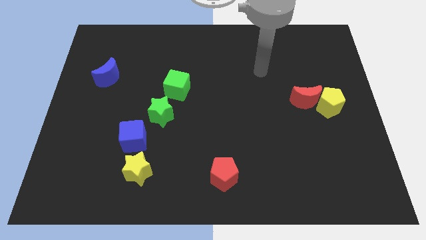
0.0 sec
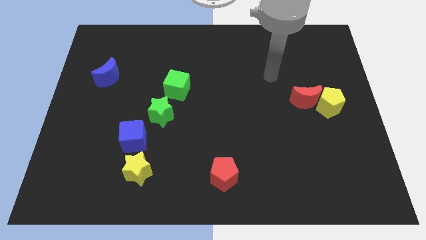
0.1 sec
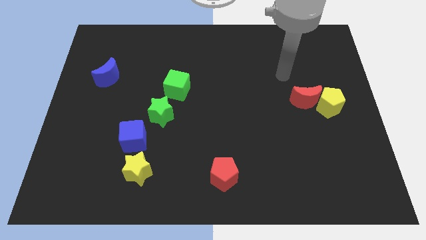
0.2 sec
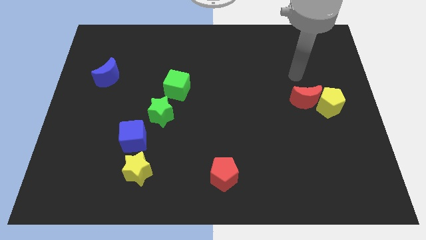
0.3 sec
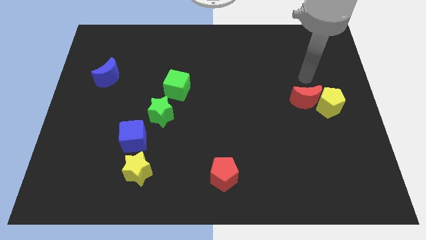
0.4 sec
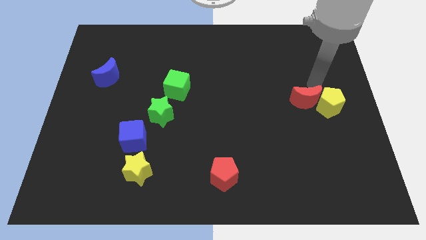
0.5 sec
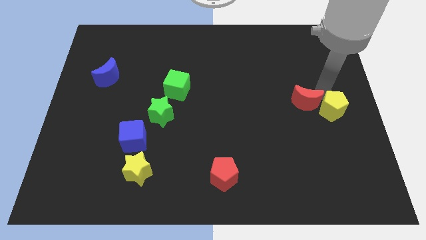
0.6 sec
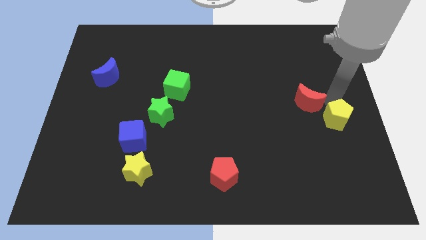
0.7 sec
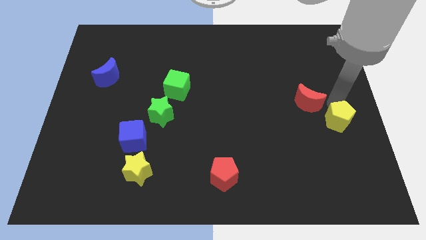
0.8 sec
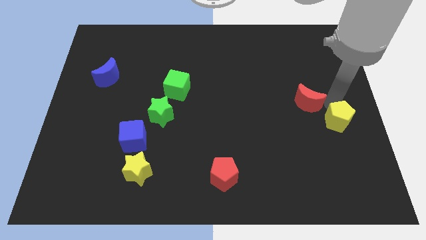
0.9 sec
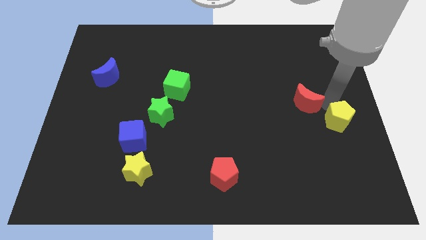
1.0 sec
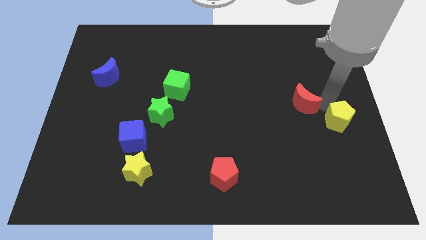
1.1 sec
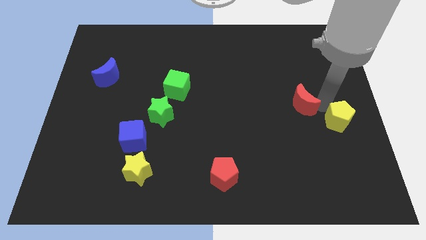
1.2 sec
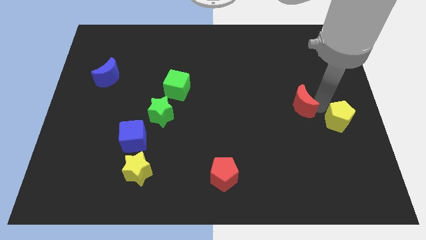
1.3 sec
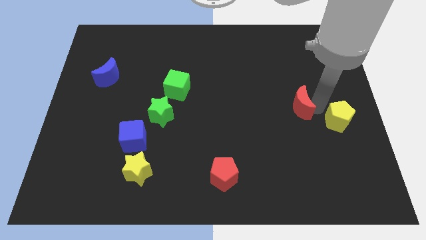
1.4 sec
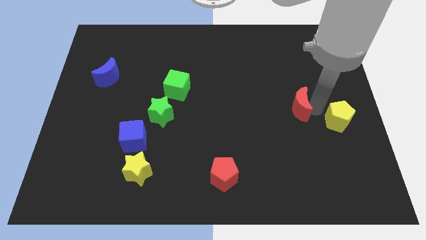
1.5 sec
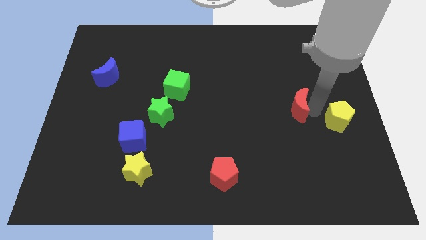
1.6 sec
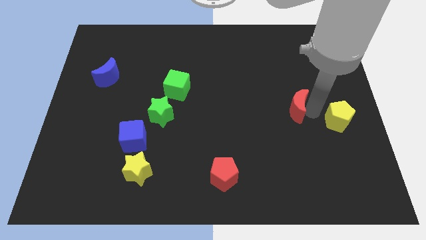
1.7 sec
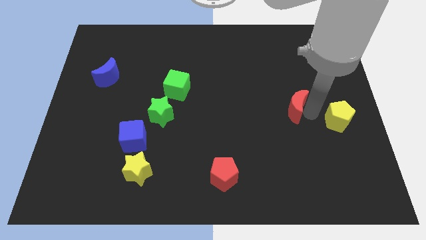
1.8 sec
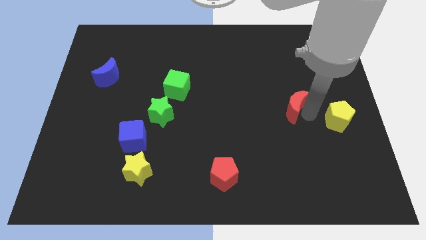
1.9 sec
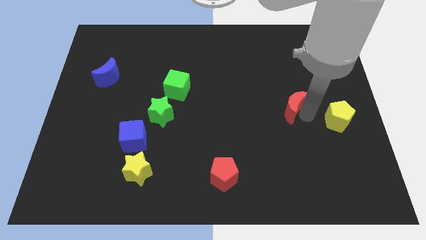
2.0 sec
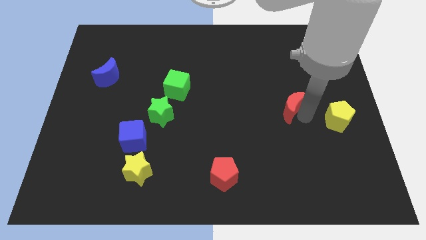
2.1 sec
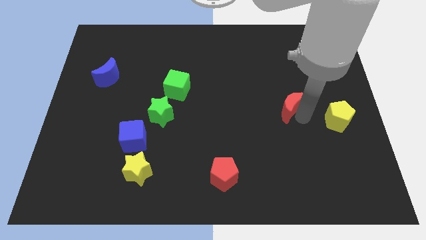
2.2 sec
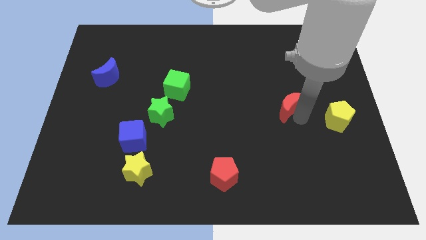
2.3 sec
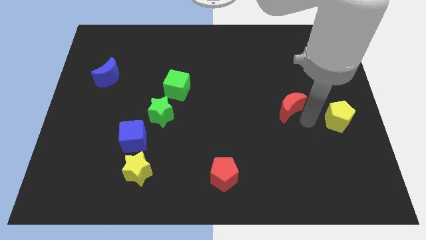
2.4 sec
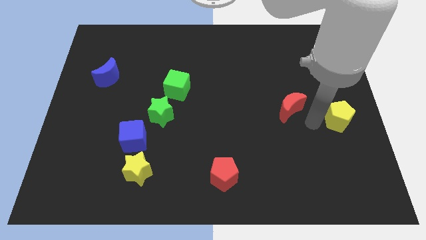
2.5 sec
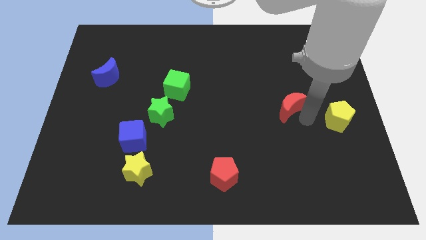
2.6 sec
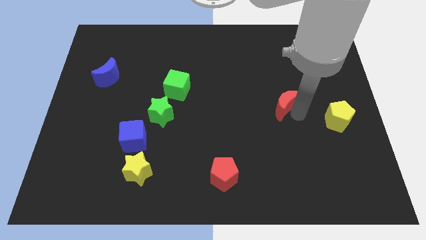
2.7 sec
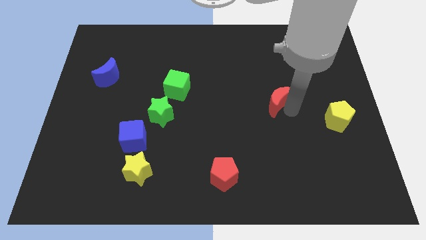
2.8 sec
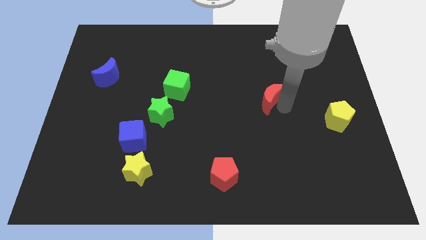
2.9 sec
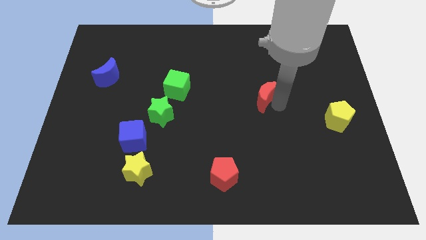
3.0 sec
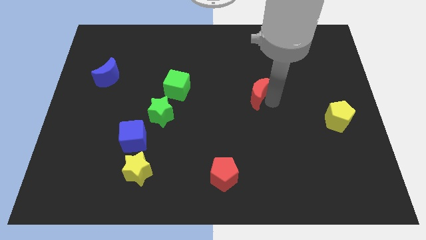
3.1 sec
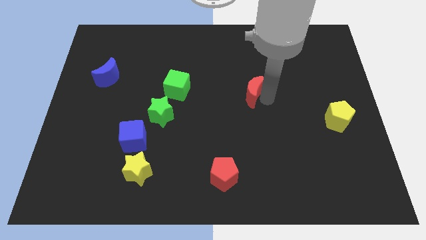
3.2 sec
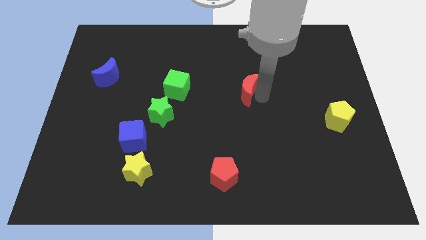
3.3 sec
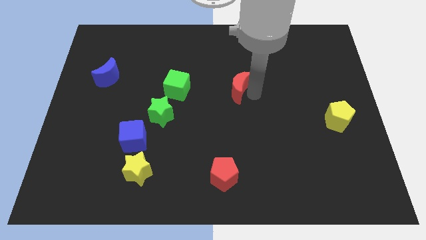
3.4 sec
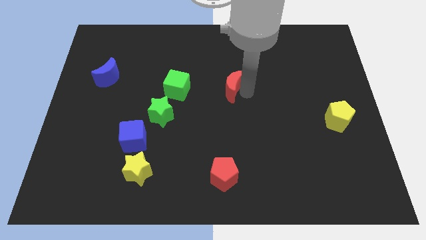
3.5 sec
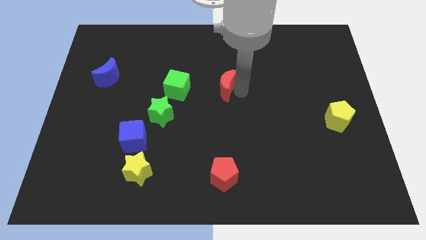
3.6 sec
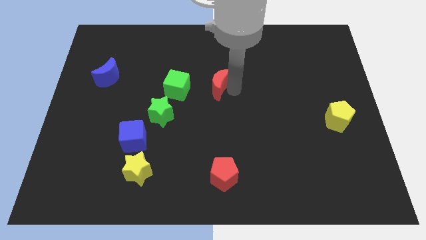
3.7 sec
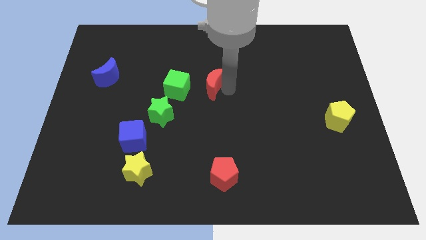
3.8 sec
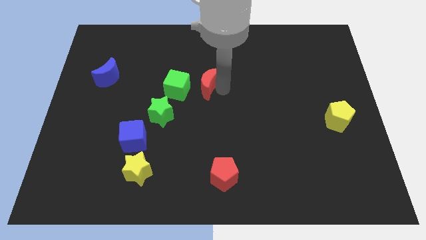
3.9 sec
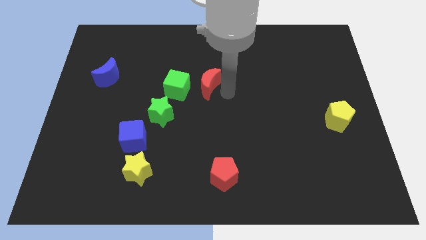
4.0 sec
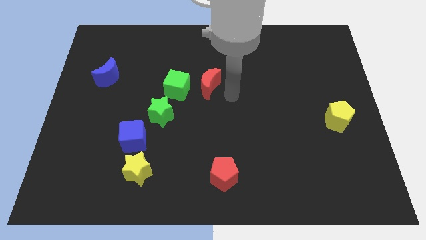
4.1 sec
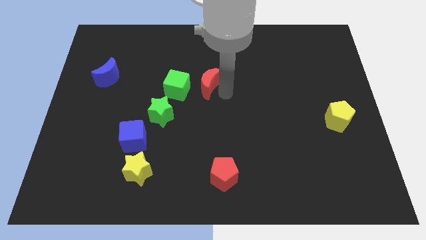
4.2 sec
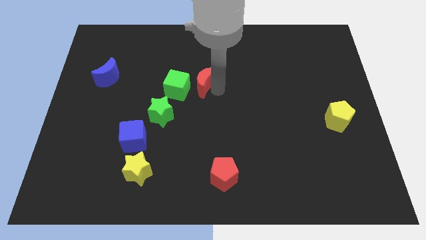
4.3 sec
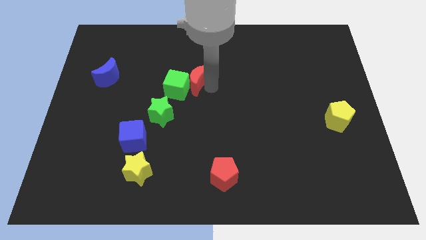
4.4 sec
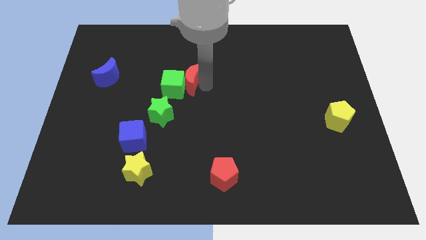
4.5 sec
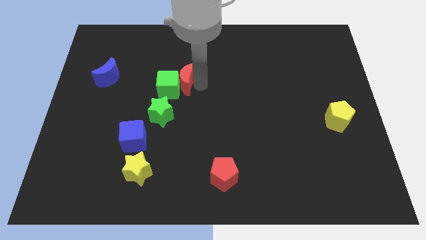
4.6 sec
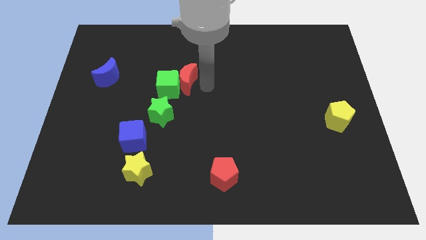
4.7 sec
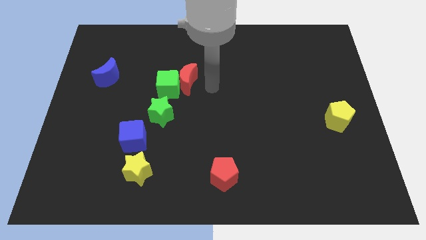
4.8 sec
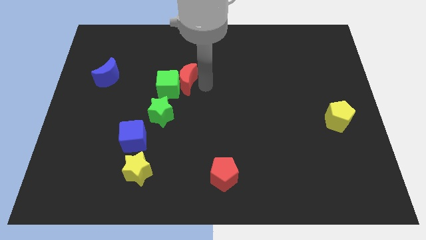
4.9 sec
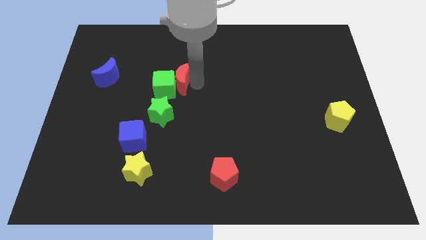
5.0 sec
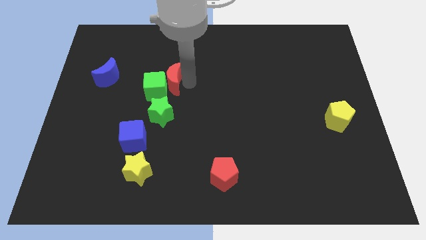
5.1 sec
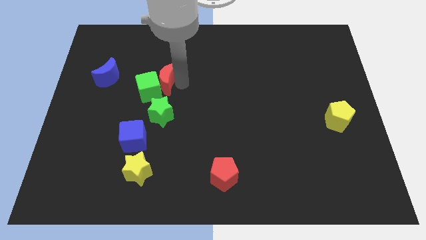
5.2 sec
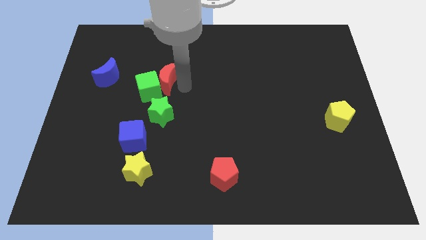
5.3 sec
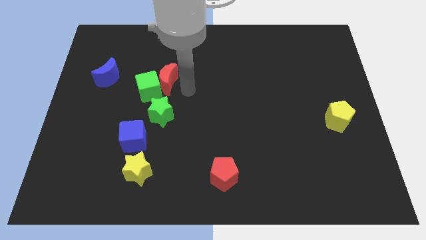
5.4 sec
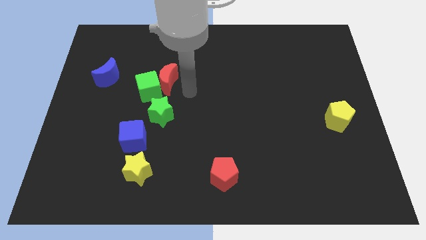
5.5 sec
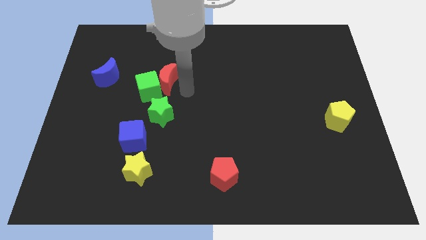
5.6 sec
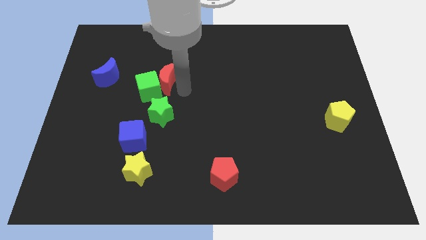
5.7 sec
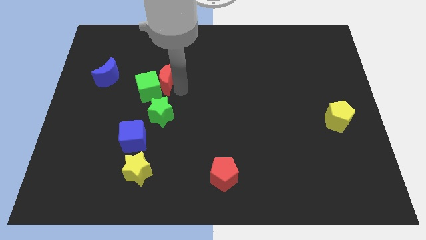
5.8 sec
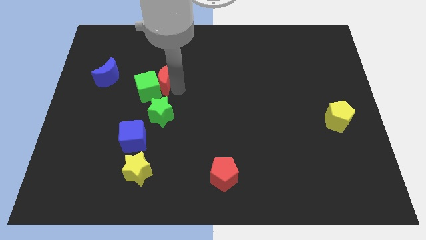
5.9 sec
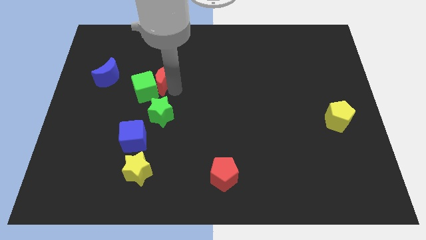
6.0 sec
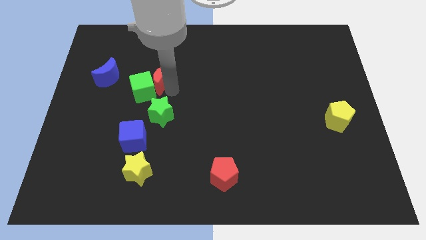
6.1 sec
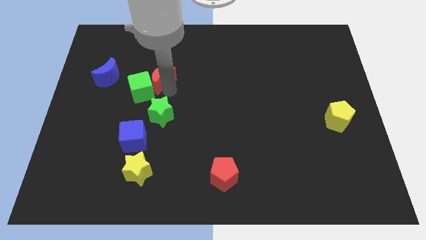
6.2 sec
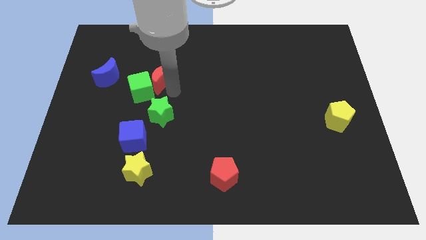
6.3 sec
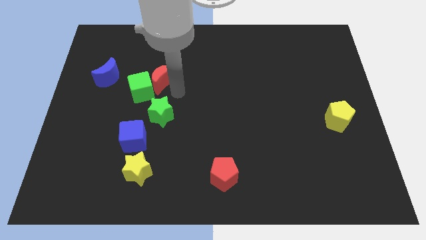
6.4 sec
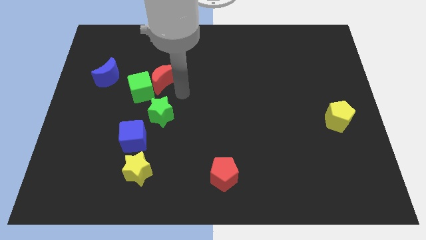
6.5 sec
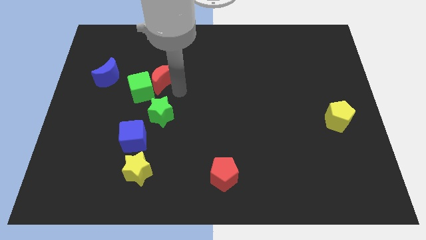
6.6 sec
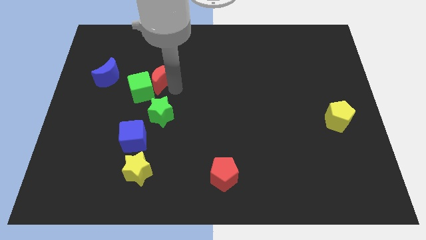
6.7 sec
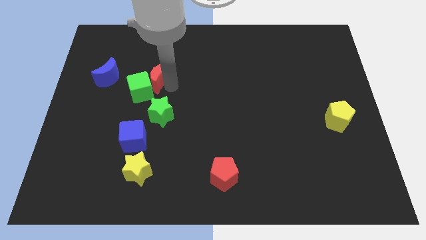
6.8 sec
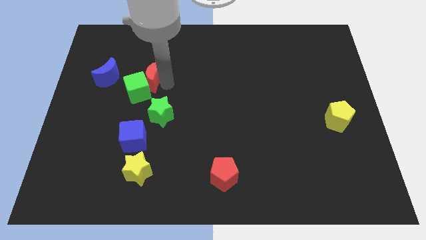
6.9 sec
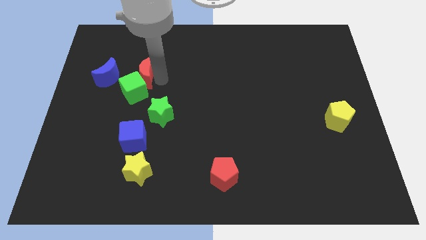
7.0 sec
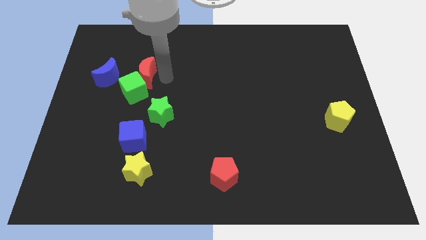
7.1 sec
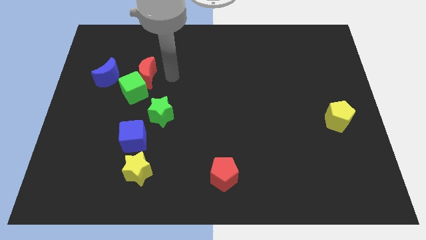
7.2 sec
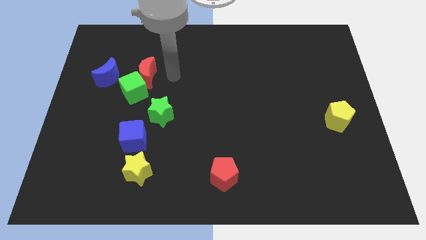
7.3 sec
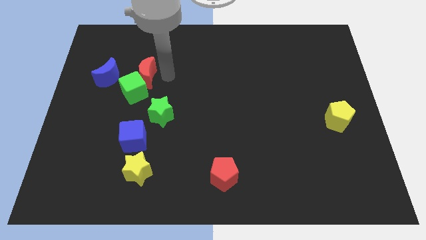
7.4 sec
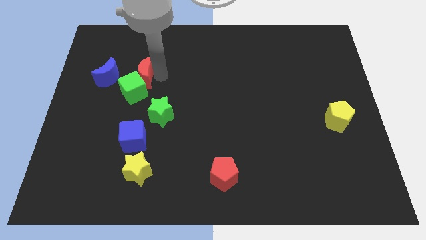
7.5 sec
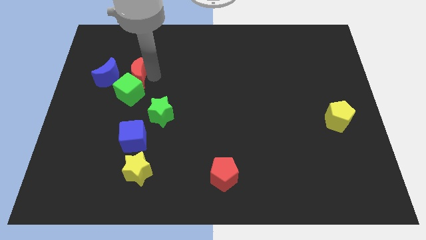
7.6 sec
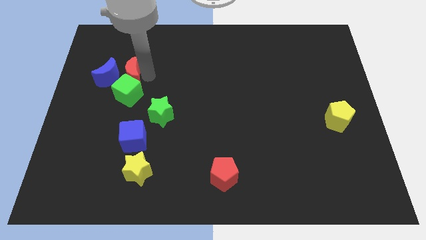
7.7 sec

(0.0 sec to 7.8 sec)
push the red moon close to the blue moon
